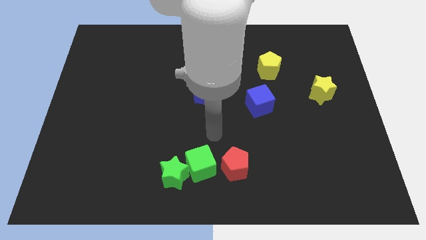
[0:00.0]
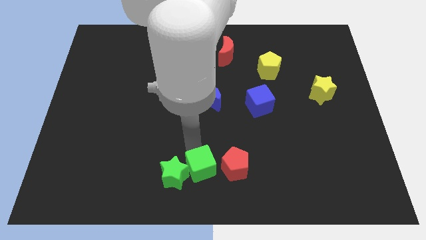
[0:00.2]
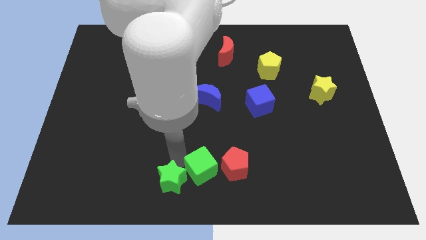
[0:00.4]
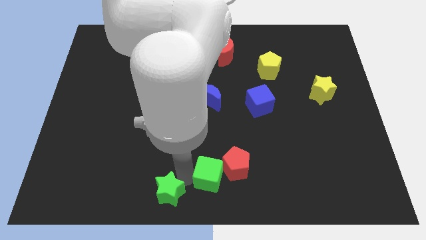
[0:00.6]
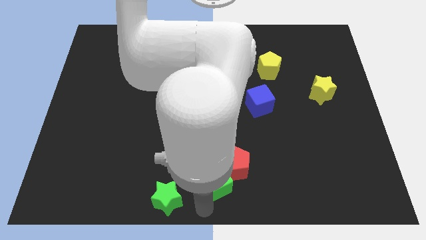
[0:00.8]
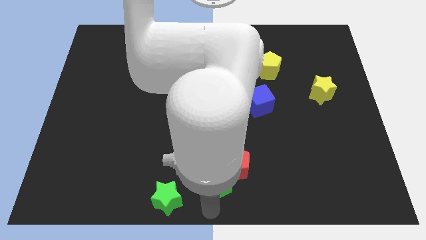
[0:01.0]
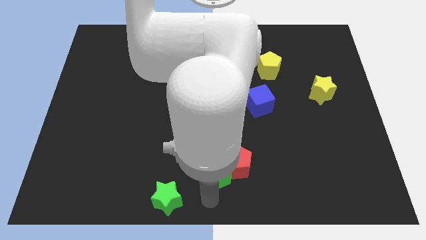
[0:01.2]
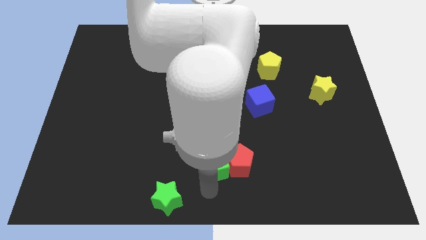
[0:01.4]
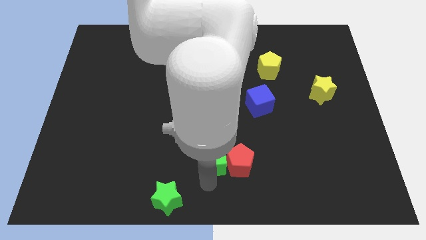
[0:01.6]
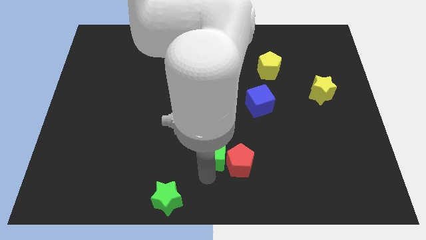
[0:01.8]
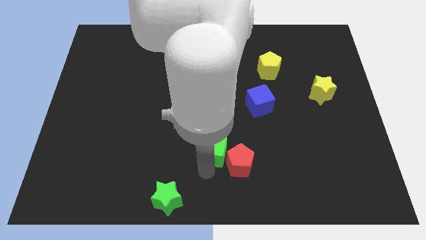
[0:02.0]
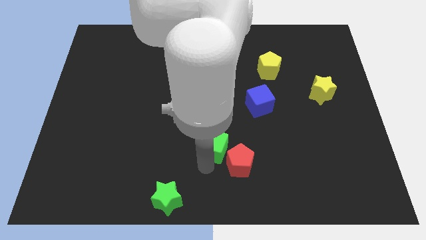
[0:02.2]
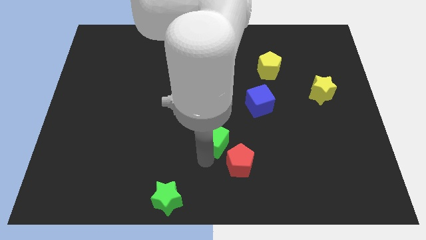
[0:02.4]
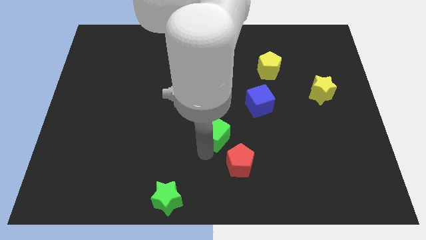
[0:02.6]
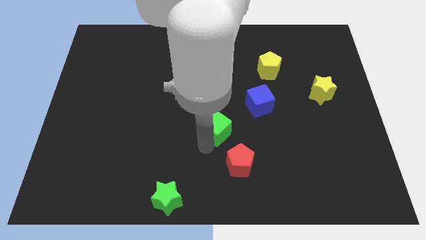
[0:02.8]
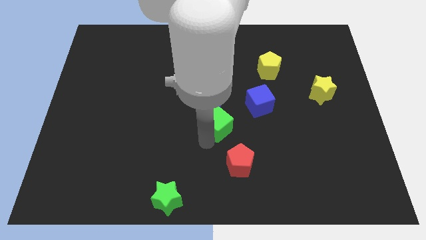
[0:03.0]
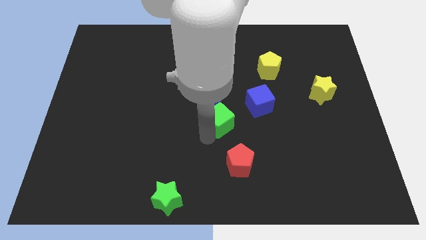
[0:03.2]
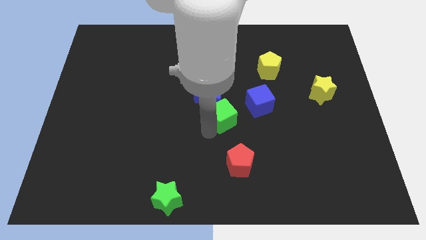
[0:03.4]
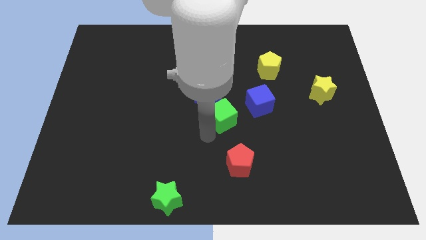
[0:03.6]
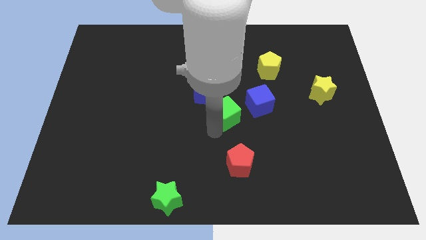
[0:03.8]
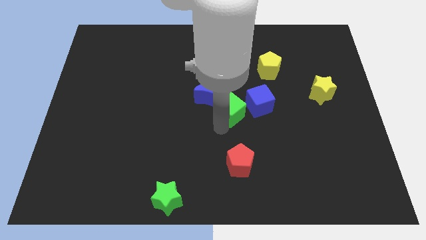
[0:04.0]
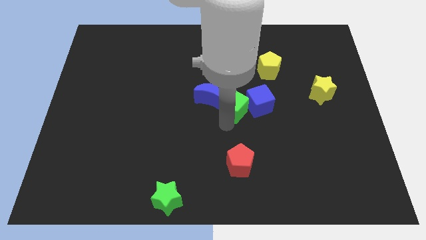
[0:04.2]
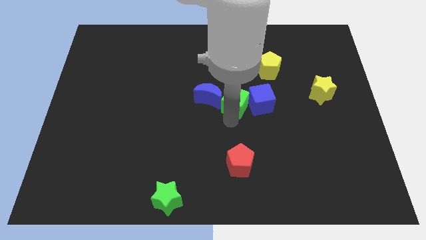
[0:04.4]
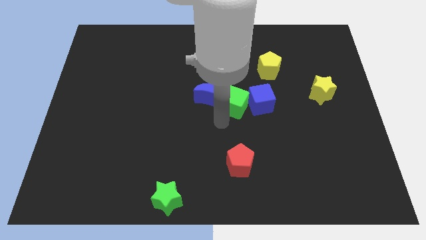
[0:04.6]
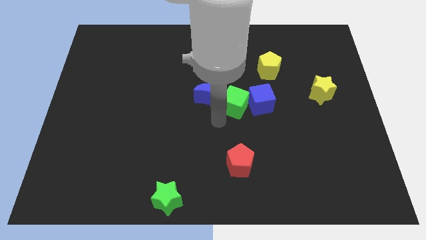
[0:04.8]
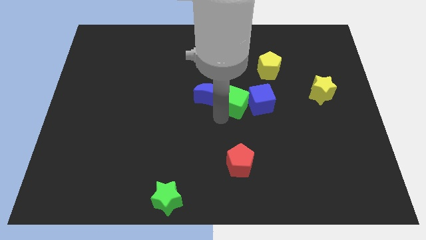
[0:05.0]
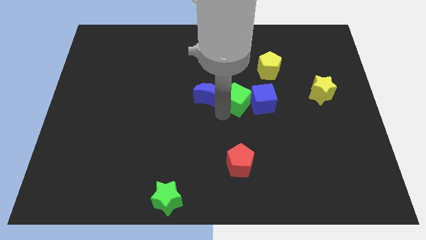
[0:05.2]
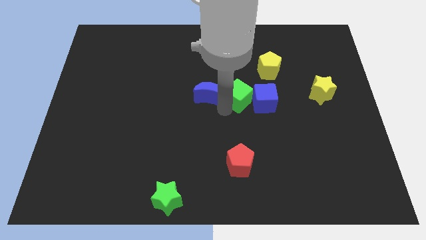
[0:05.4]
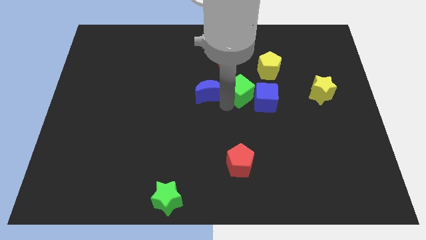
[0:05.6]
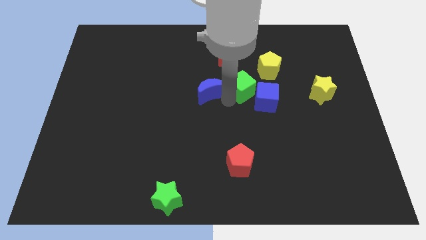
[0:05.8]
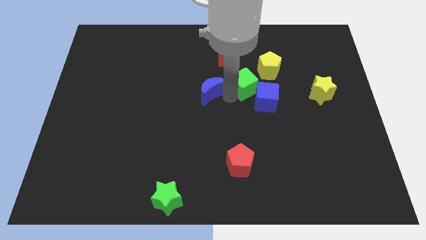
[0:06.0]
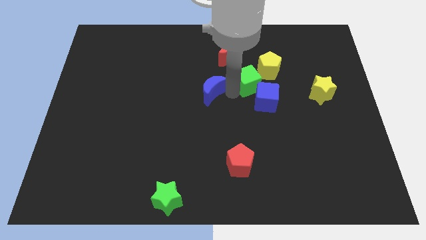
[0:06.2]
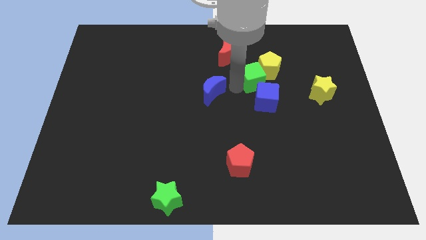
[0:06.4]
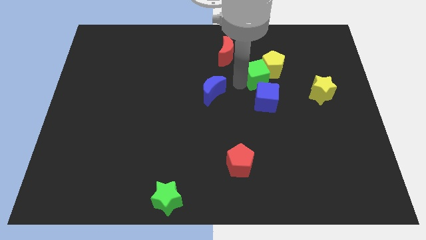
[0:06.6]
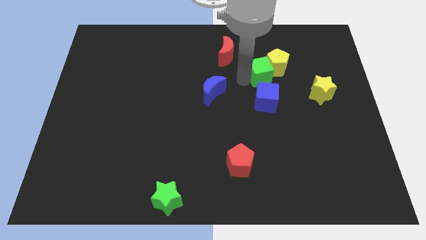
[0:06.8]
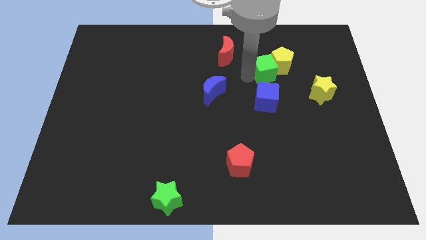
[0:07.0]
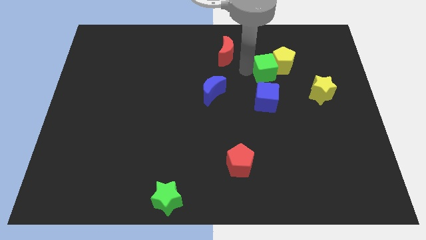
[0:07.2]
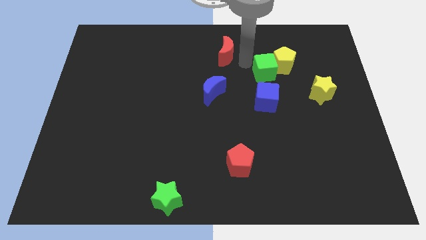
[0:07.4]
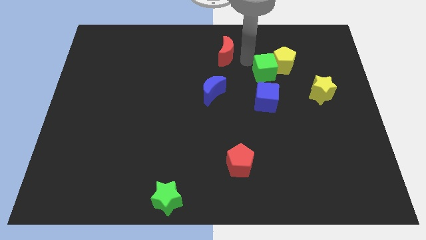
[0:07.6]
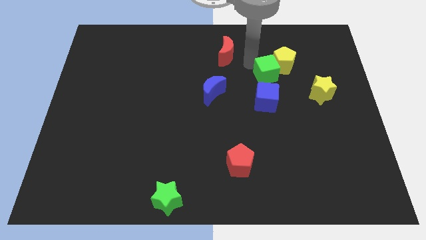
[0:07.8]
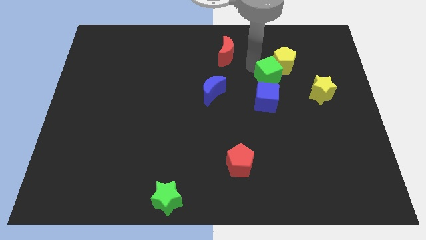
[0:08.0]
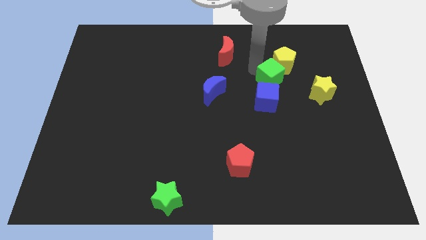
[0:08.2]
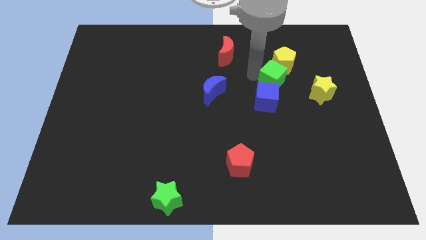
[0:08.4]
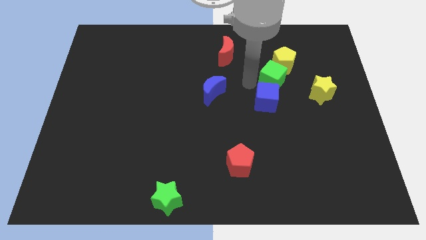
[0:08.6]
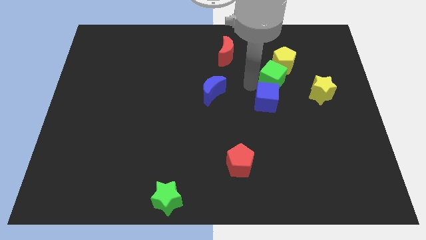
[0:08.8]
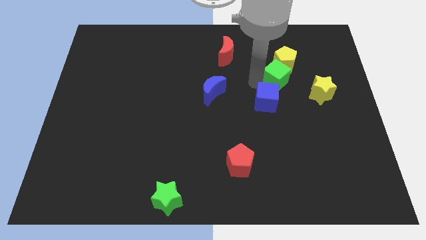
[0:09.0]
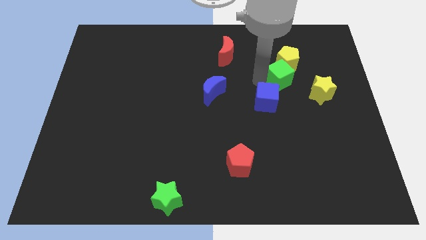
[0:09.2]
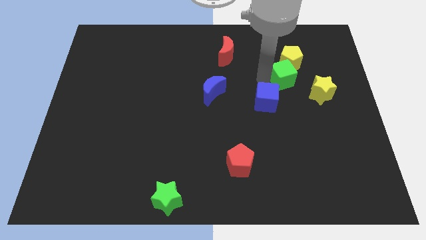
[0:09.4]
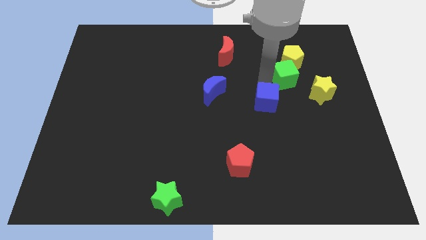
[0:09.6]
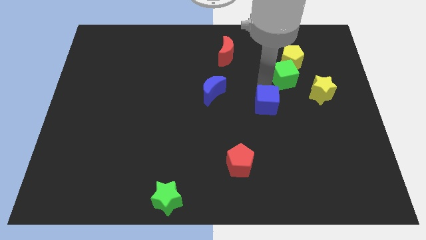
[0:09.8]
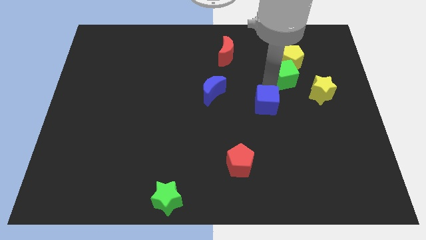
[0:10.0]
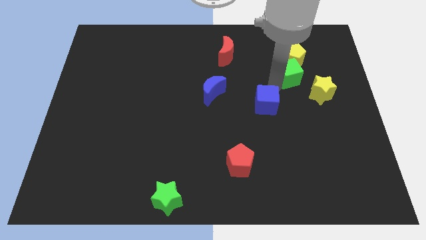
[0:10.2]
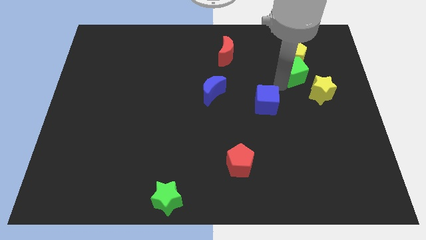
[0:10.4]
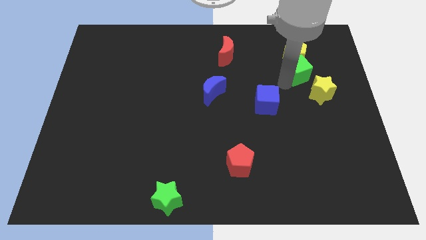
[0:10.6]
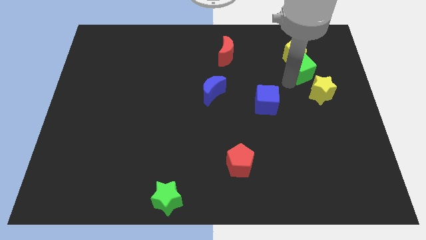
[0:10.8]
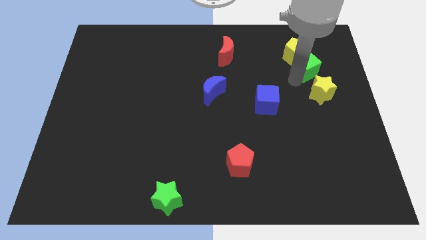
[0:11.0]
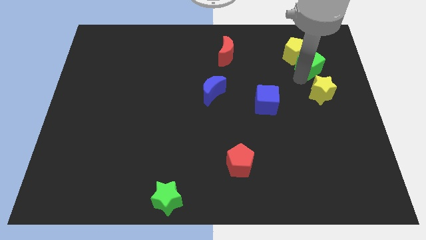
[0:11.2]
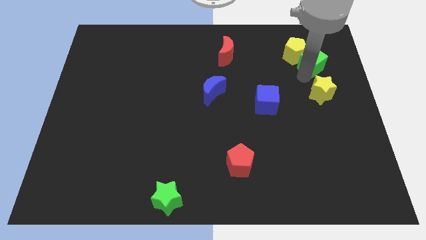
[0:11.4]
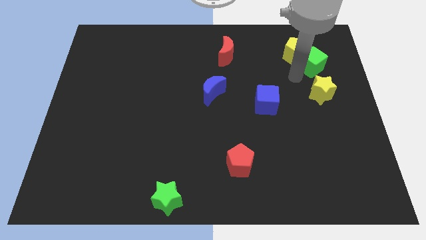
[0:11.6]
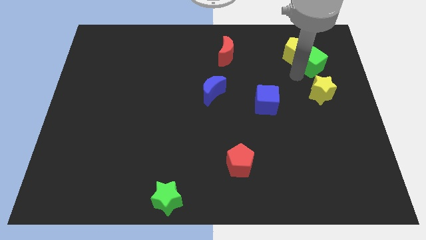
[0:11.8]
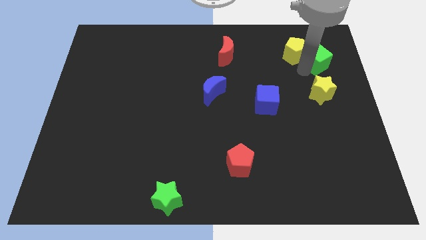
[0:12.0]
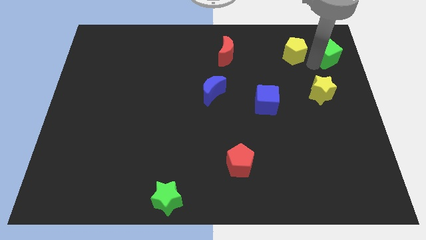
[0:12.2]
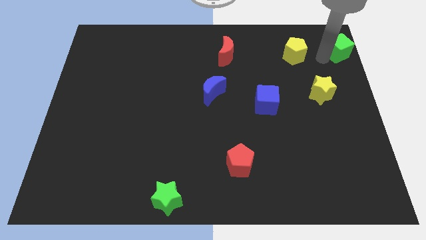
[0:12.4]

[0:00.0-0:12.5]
move the green cube to the top right

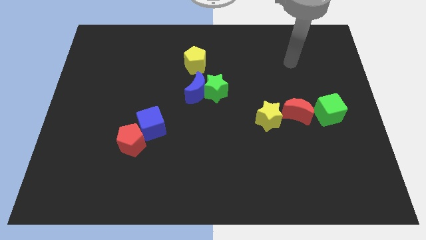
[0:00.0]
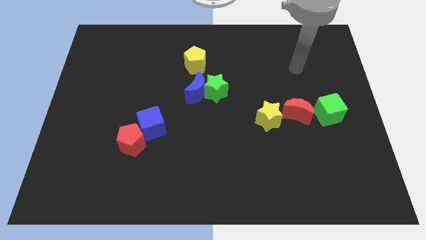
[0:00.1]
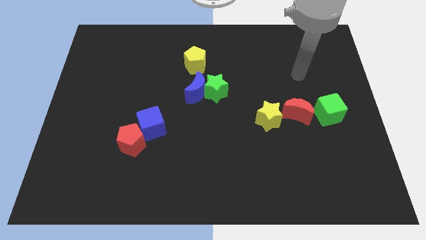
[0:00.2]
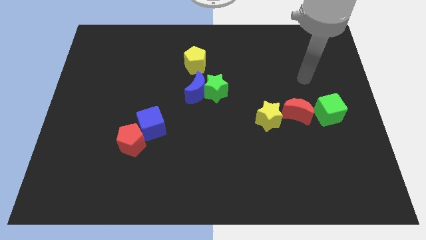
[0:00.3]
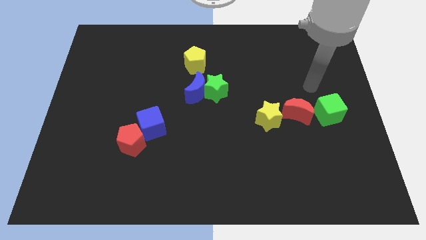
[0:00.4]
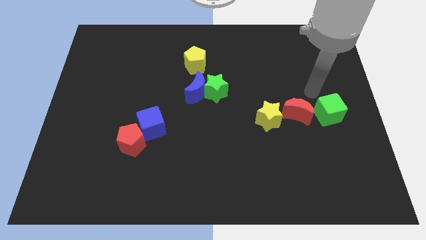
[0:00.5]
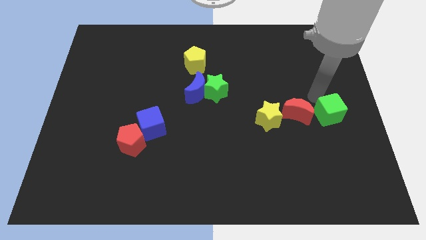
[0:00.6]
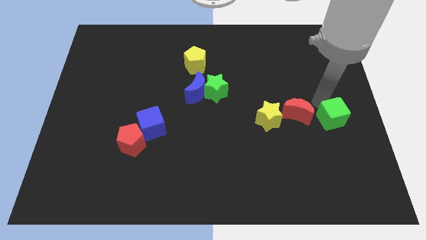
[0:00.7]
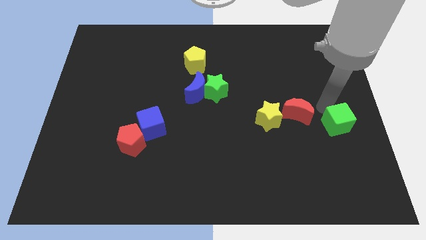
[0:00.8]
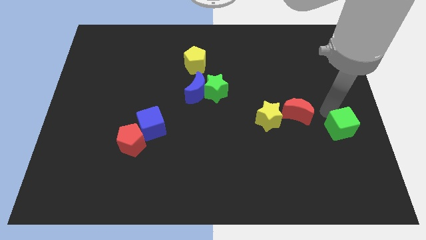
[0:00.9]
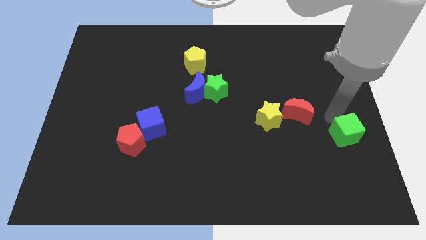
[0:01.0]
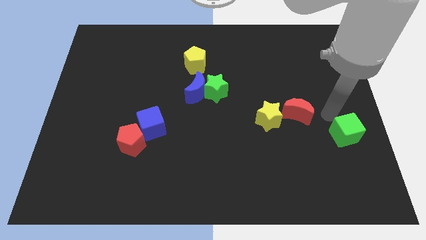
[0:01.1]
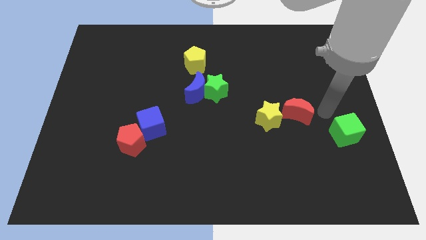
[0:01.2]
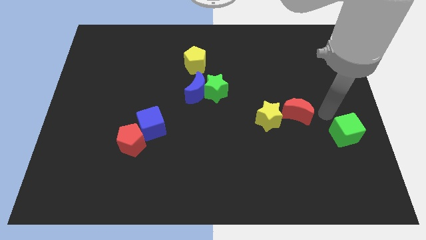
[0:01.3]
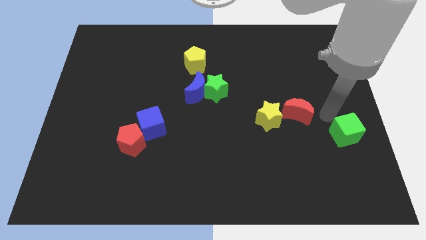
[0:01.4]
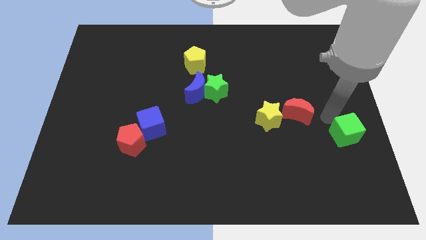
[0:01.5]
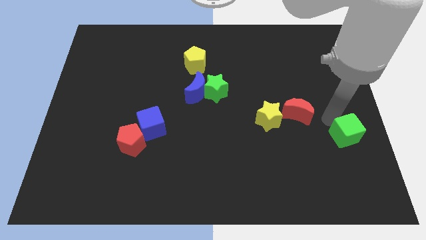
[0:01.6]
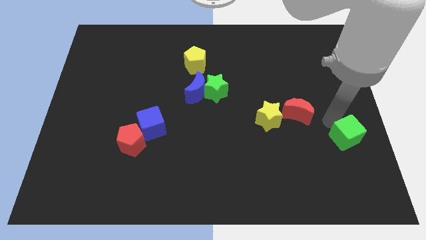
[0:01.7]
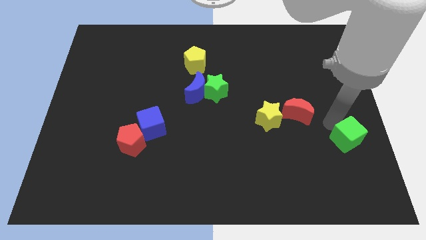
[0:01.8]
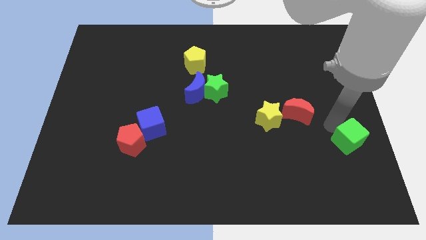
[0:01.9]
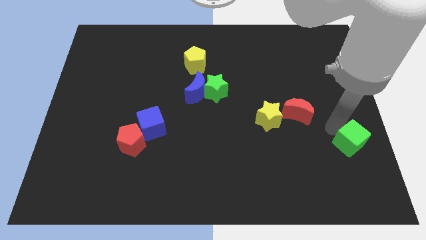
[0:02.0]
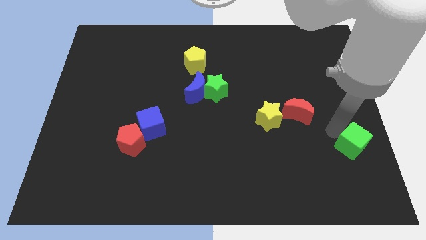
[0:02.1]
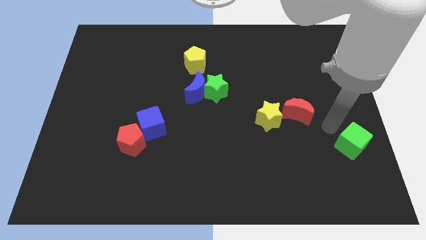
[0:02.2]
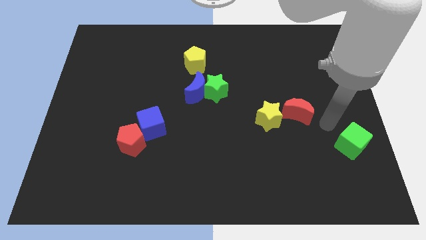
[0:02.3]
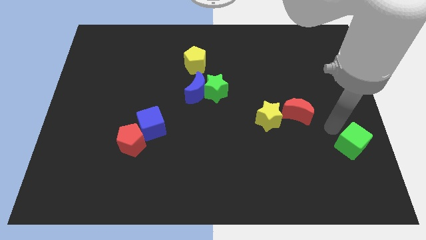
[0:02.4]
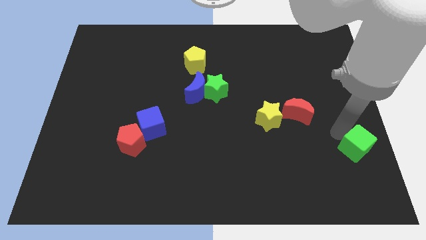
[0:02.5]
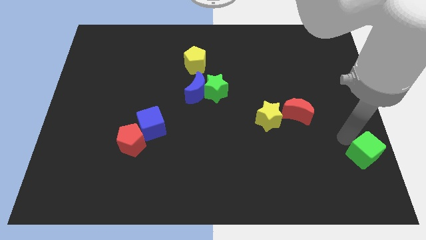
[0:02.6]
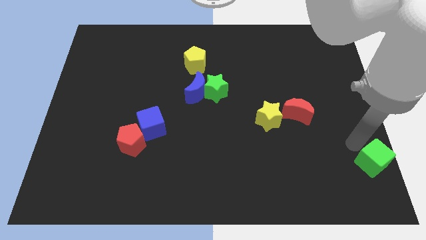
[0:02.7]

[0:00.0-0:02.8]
push the green cube to the lower right corner
